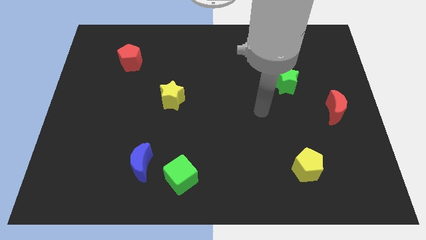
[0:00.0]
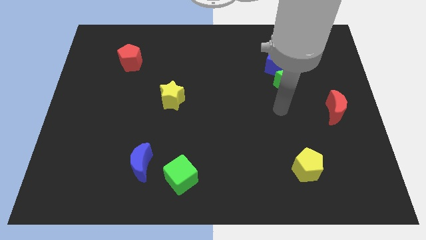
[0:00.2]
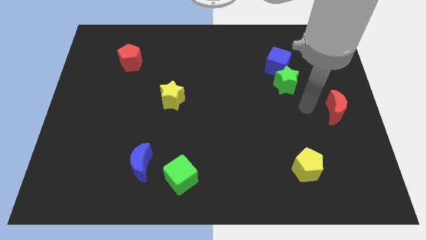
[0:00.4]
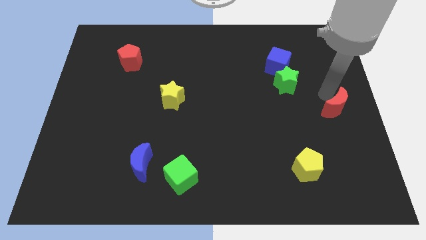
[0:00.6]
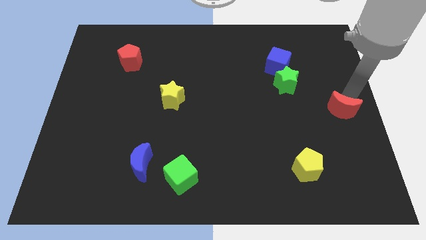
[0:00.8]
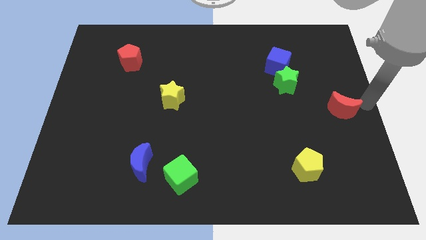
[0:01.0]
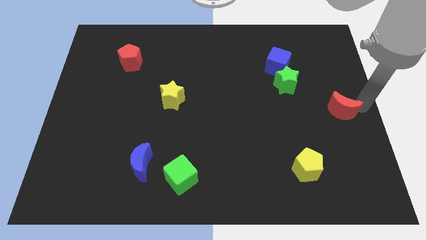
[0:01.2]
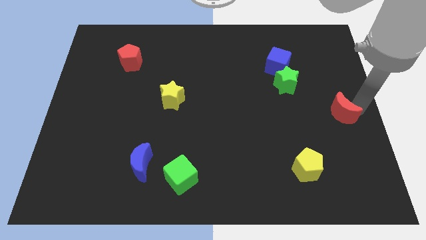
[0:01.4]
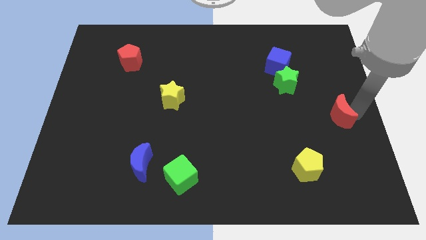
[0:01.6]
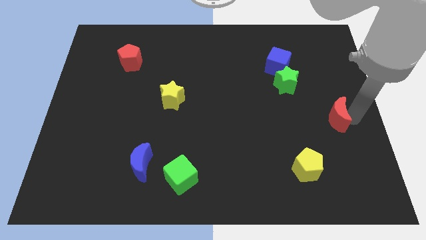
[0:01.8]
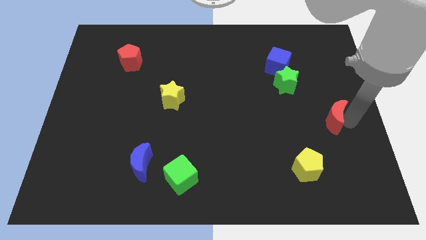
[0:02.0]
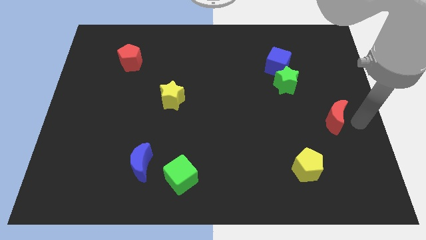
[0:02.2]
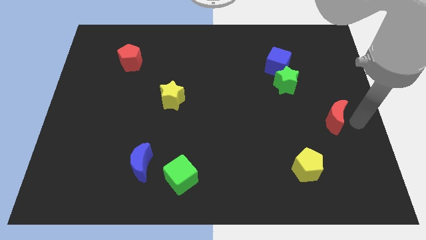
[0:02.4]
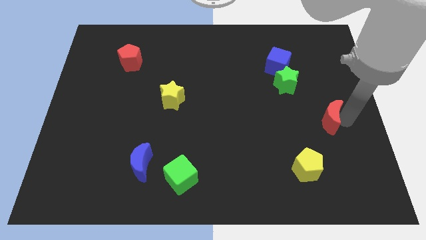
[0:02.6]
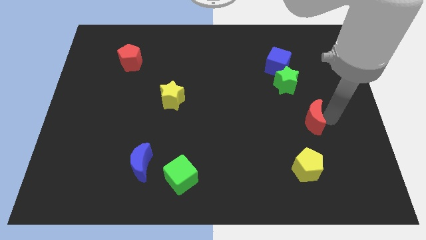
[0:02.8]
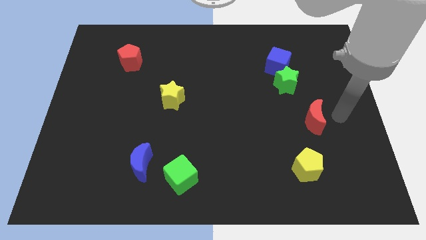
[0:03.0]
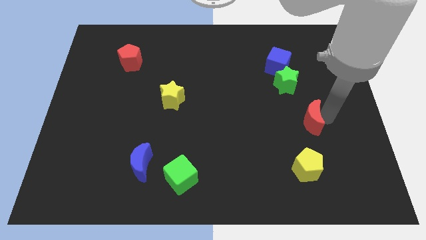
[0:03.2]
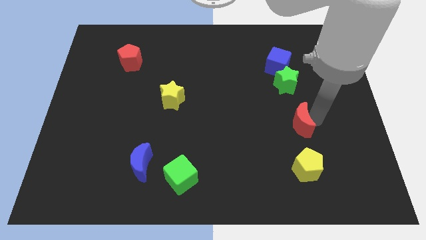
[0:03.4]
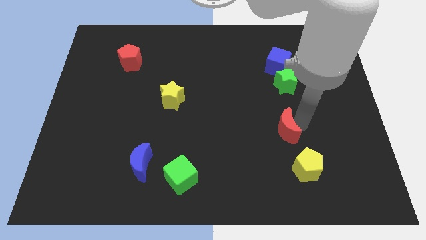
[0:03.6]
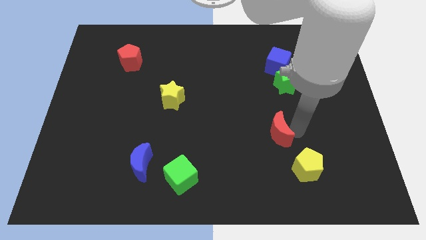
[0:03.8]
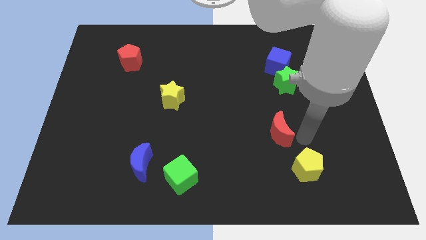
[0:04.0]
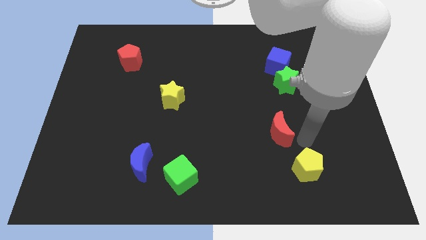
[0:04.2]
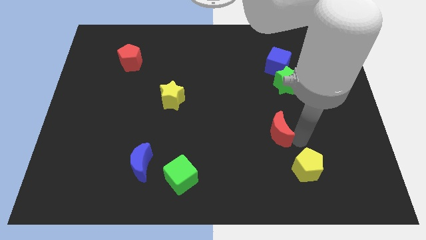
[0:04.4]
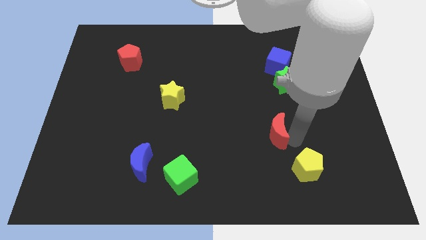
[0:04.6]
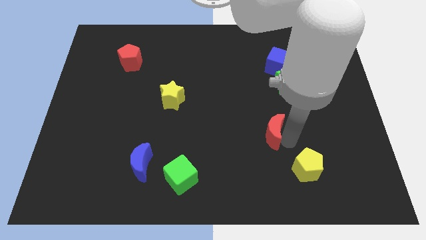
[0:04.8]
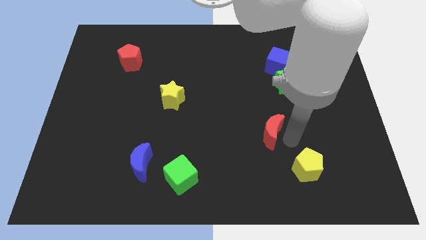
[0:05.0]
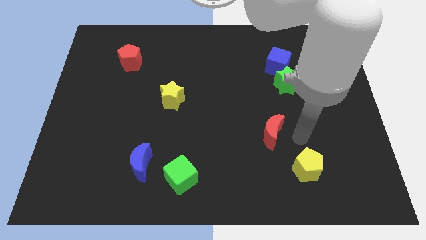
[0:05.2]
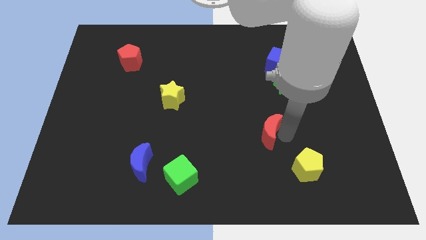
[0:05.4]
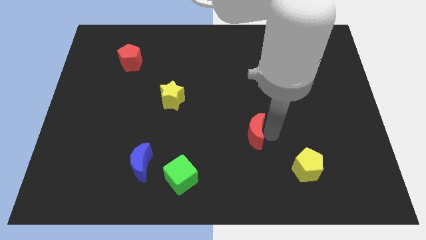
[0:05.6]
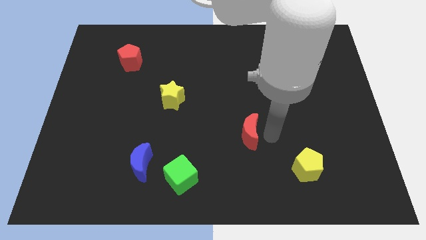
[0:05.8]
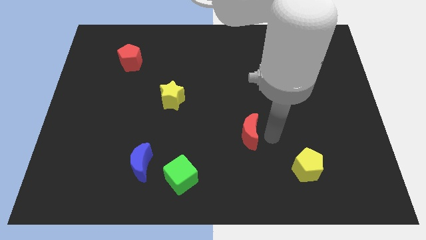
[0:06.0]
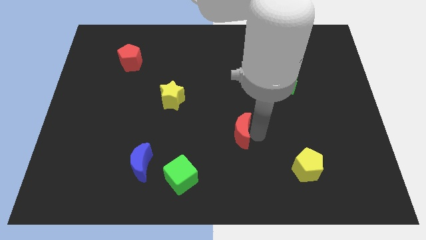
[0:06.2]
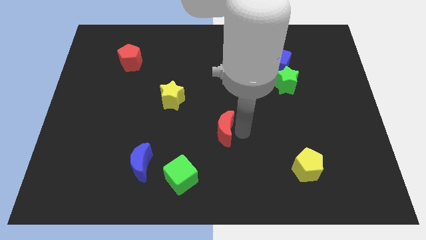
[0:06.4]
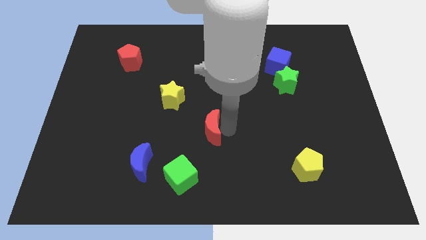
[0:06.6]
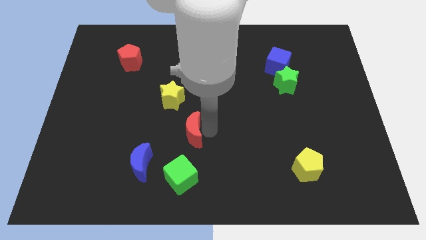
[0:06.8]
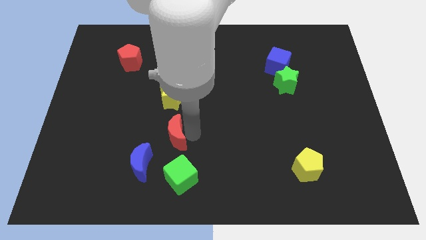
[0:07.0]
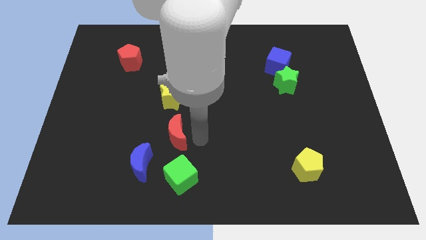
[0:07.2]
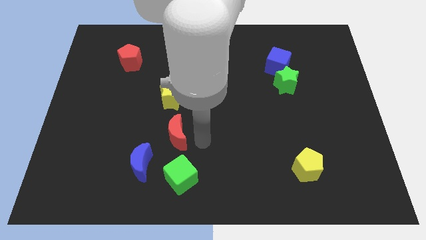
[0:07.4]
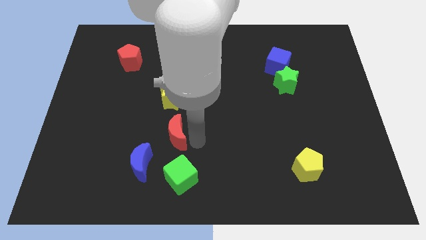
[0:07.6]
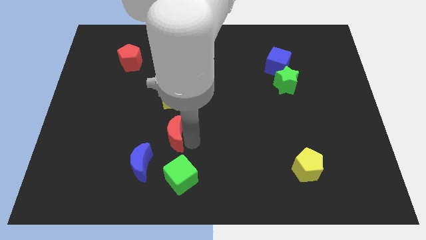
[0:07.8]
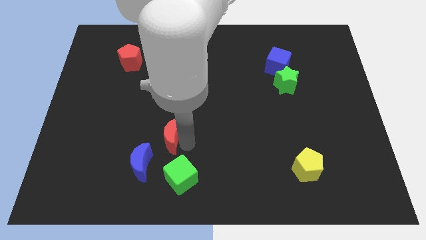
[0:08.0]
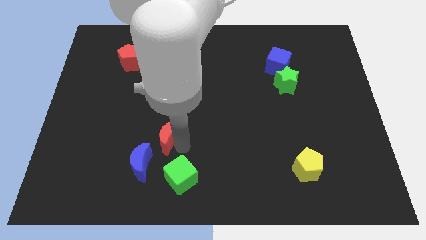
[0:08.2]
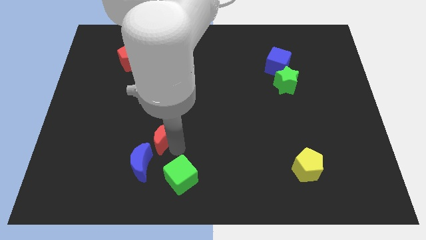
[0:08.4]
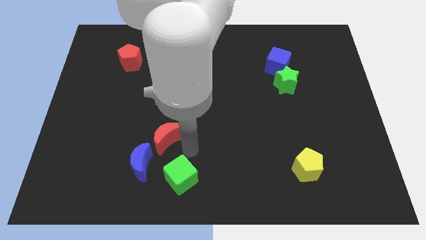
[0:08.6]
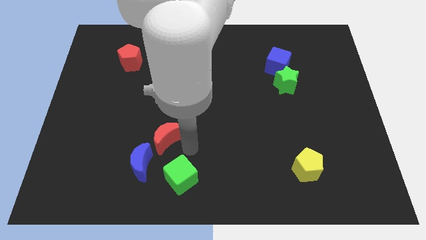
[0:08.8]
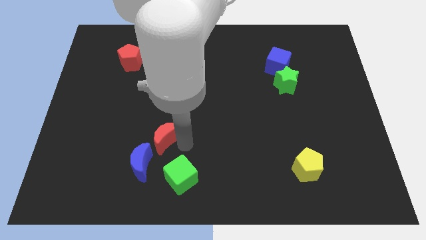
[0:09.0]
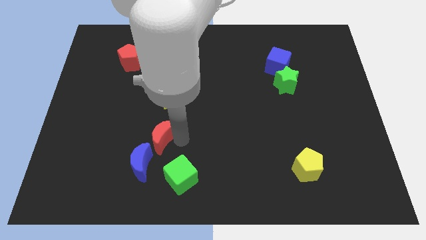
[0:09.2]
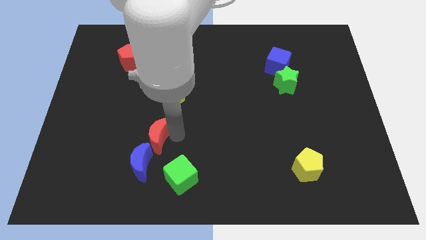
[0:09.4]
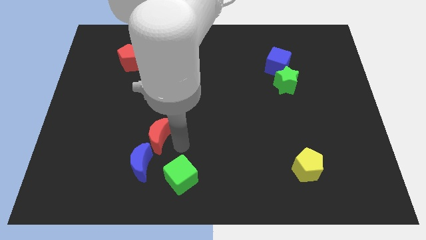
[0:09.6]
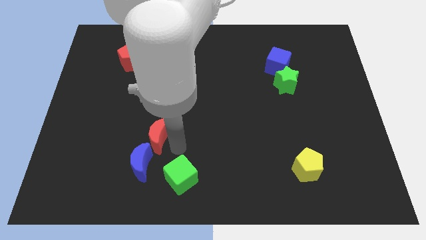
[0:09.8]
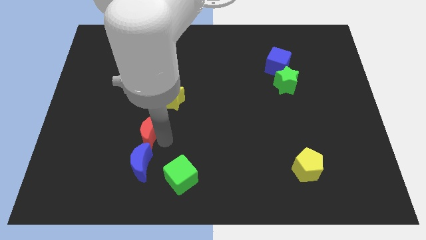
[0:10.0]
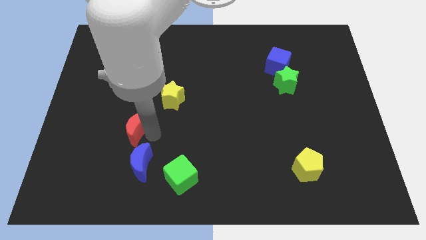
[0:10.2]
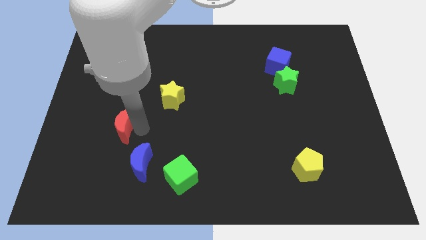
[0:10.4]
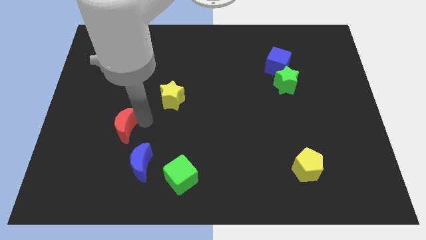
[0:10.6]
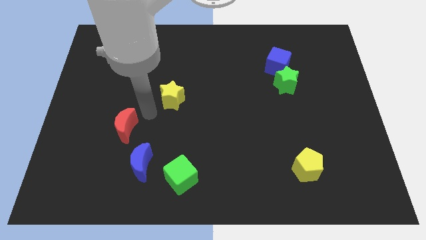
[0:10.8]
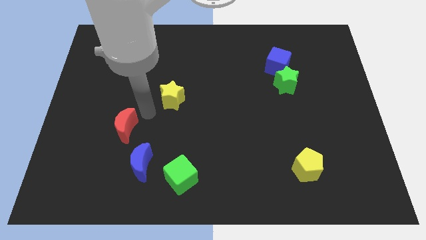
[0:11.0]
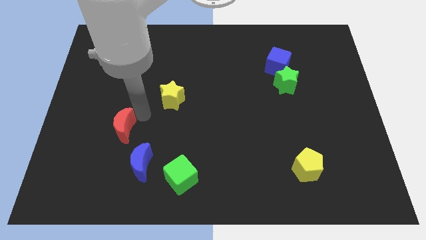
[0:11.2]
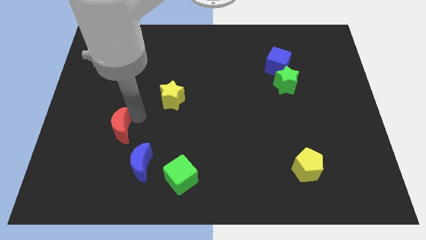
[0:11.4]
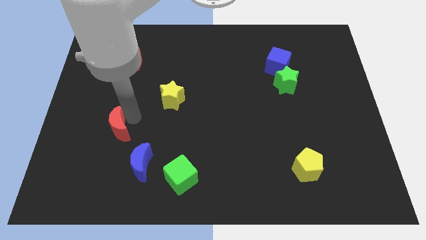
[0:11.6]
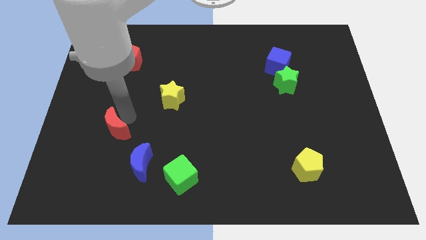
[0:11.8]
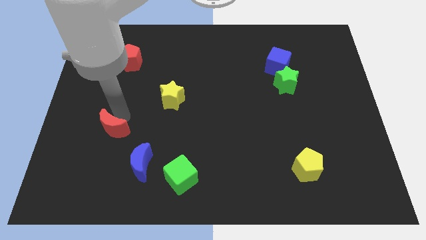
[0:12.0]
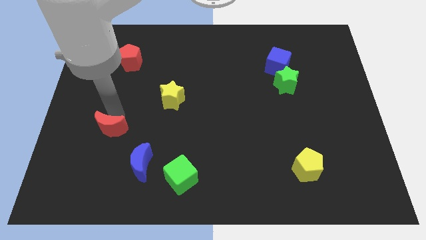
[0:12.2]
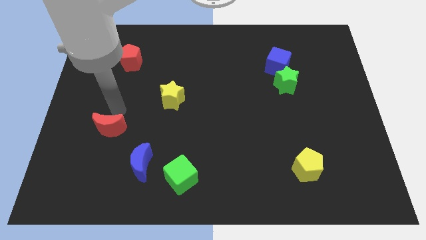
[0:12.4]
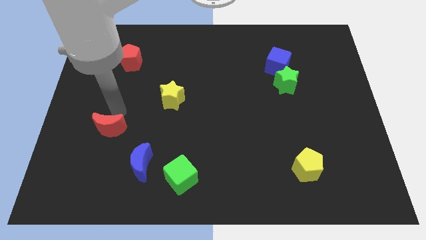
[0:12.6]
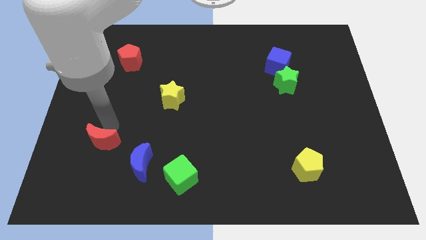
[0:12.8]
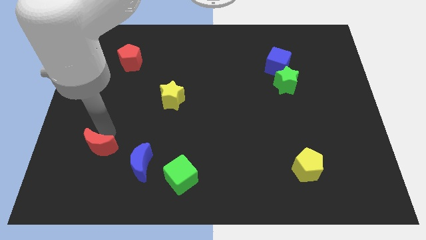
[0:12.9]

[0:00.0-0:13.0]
put the red moon to the left side of the blue moon
